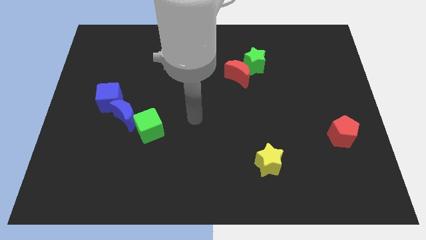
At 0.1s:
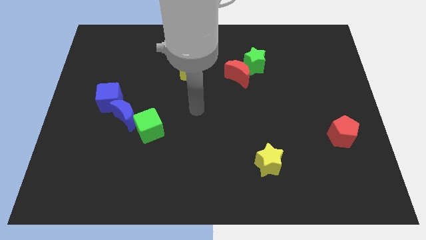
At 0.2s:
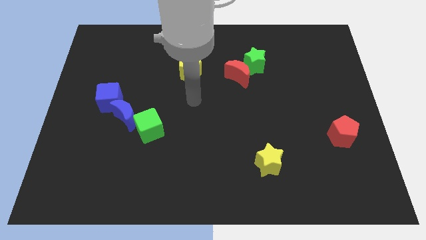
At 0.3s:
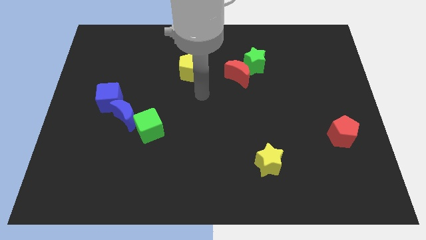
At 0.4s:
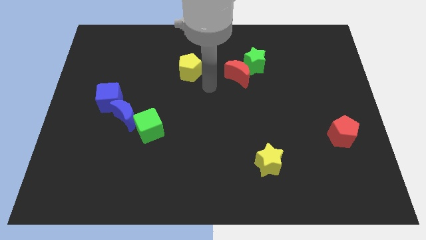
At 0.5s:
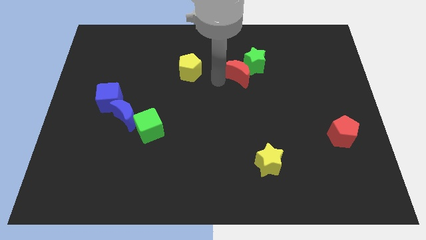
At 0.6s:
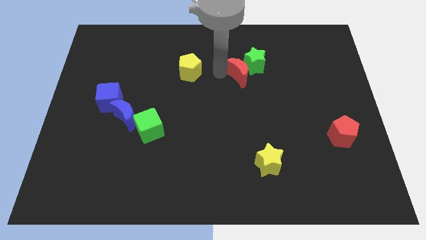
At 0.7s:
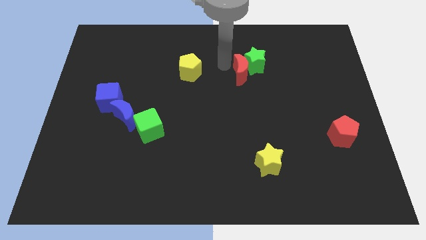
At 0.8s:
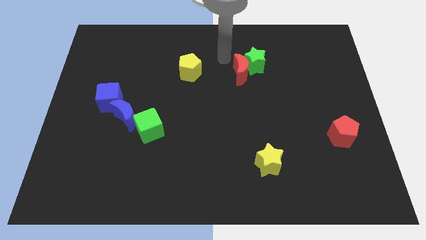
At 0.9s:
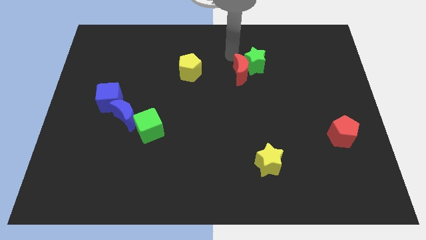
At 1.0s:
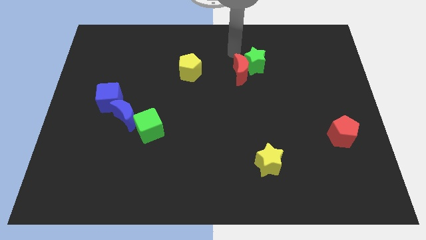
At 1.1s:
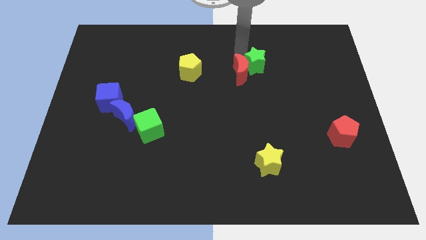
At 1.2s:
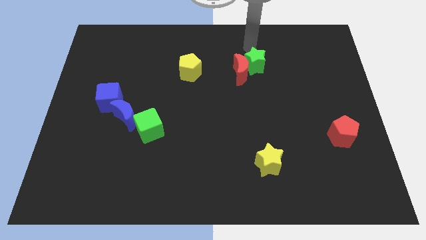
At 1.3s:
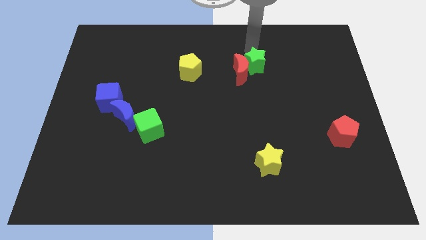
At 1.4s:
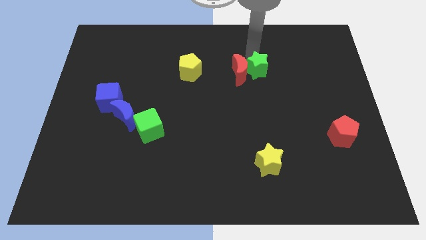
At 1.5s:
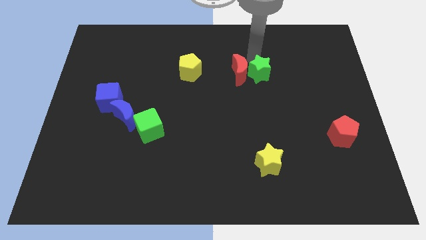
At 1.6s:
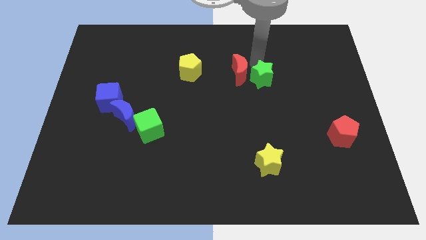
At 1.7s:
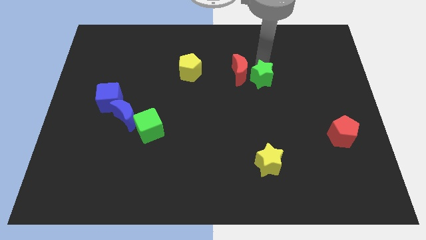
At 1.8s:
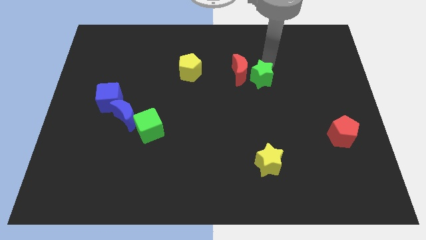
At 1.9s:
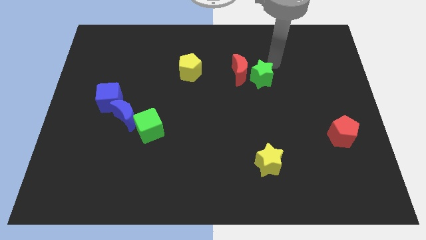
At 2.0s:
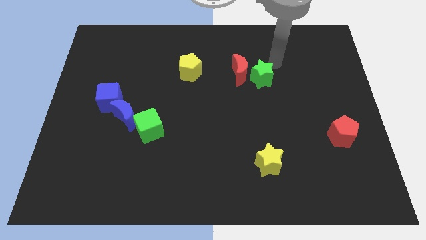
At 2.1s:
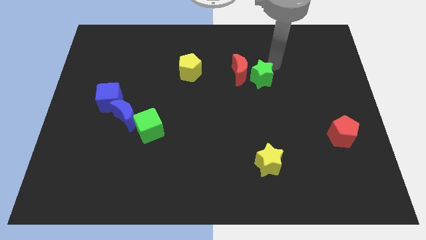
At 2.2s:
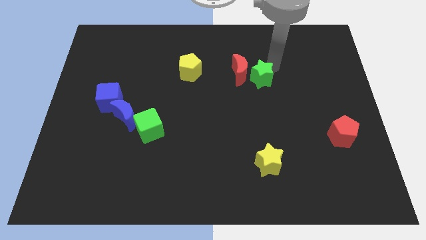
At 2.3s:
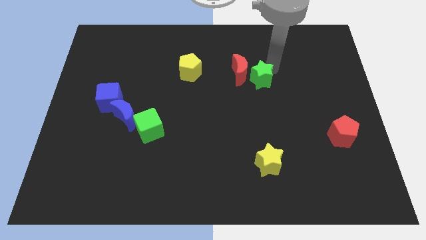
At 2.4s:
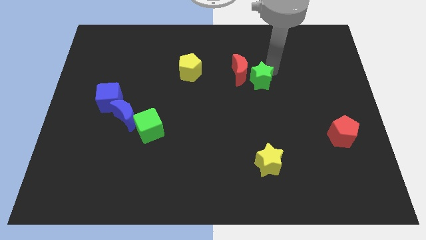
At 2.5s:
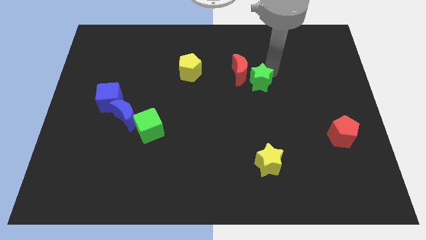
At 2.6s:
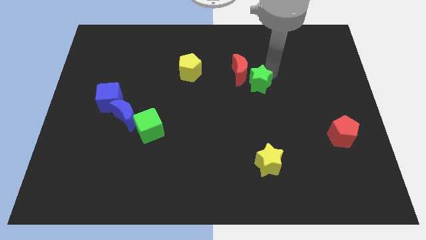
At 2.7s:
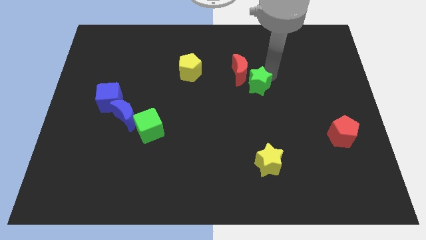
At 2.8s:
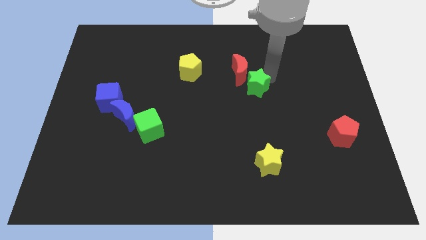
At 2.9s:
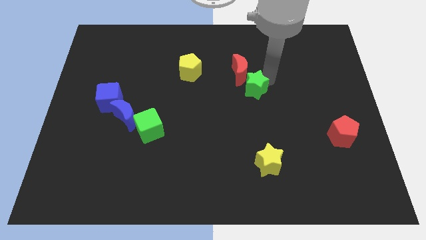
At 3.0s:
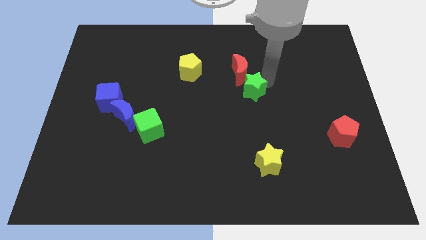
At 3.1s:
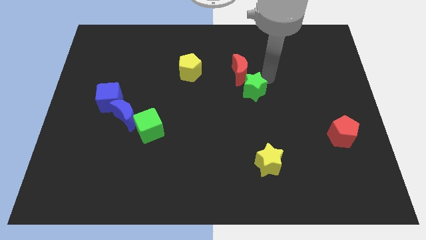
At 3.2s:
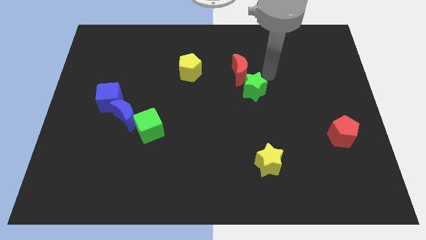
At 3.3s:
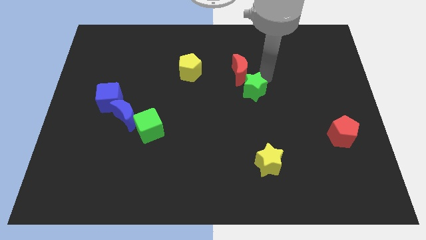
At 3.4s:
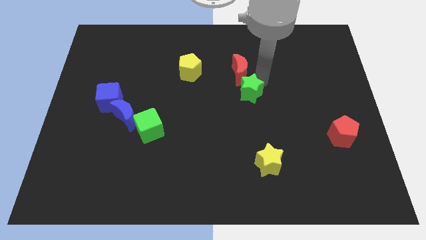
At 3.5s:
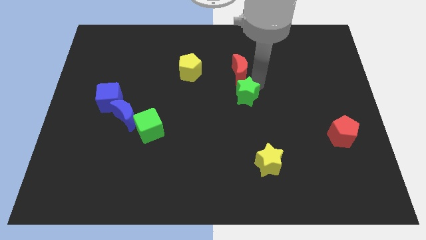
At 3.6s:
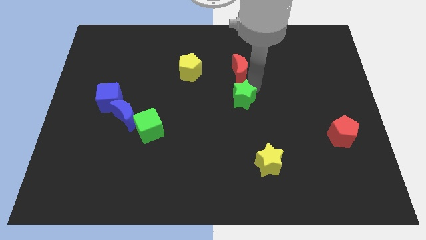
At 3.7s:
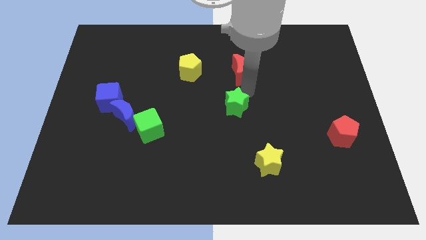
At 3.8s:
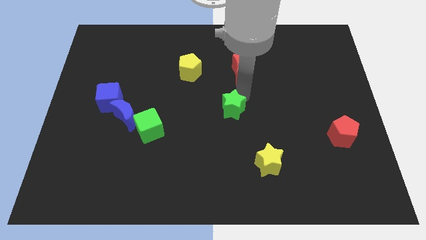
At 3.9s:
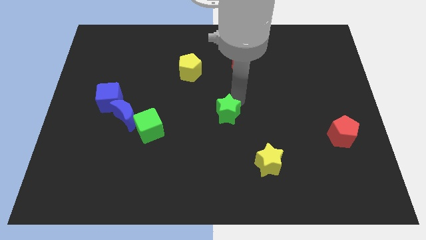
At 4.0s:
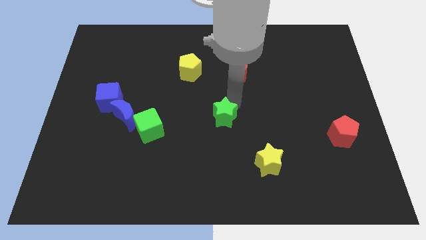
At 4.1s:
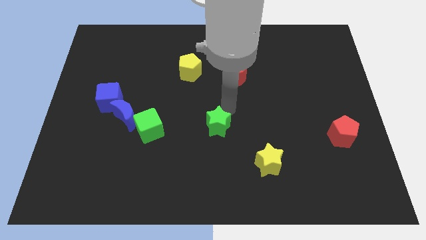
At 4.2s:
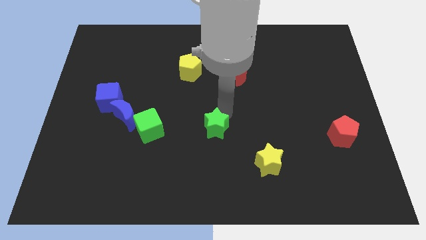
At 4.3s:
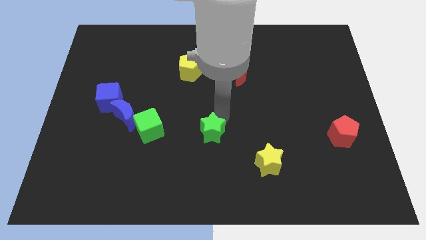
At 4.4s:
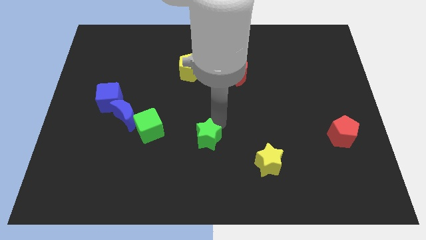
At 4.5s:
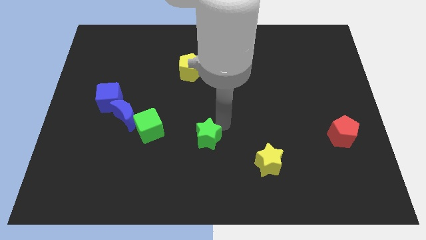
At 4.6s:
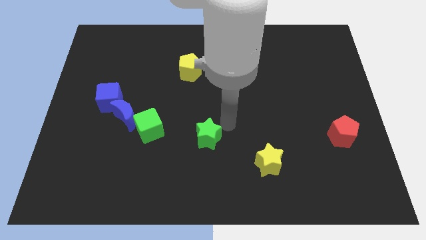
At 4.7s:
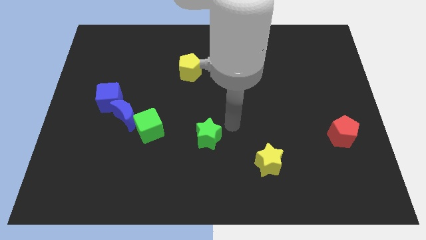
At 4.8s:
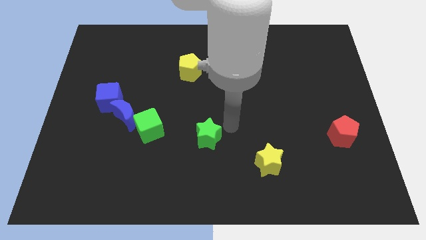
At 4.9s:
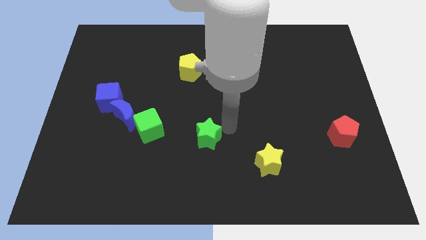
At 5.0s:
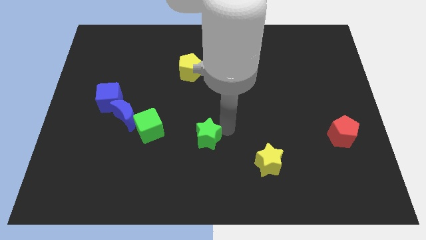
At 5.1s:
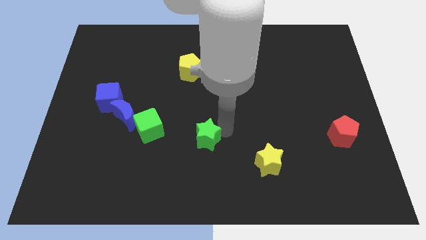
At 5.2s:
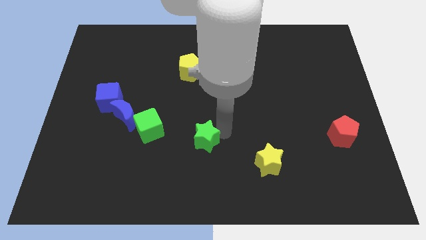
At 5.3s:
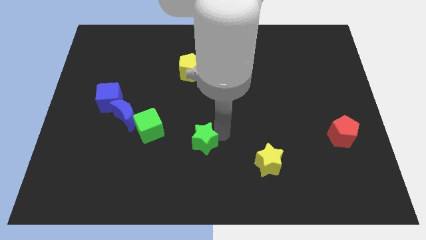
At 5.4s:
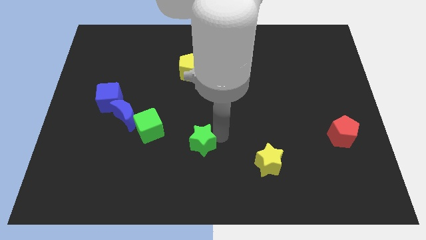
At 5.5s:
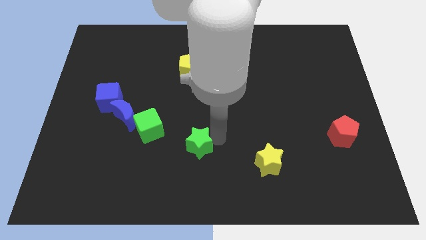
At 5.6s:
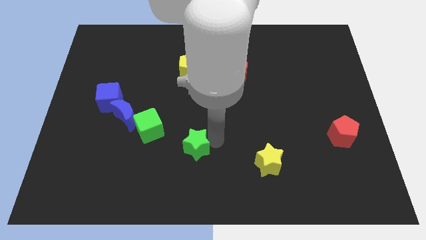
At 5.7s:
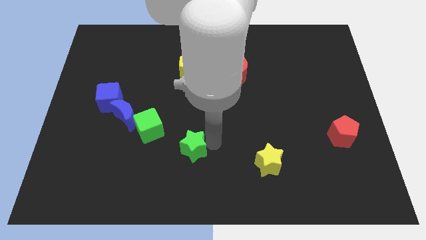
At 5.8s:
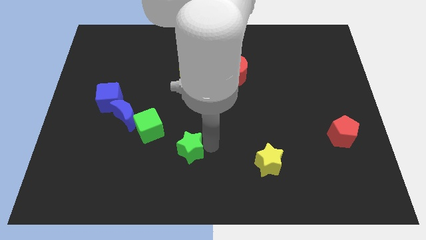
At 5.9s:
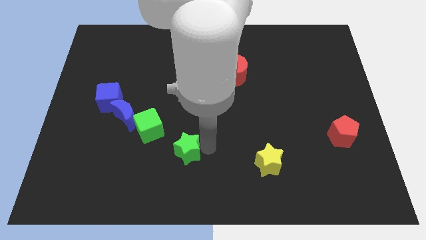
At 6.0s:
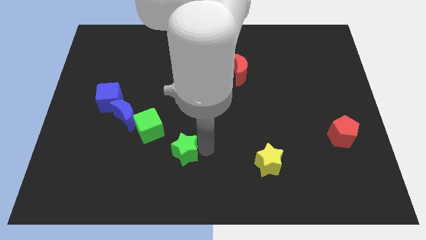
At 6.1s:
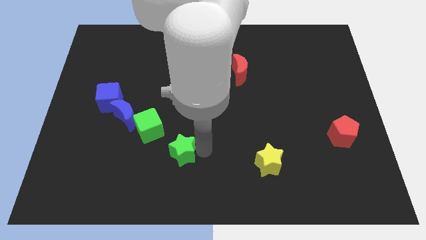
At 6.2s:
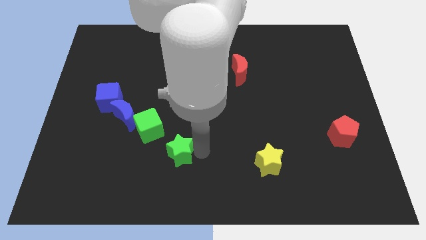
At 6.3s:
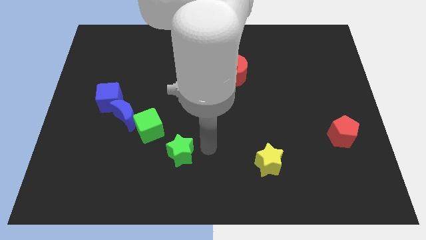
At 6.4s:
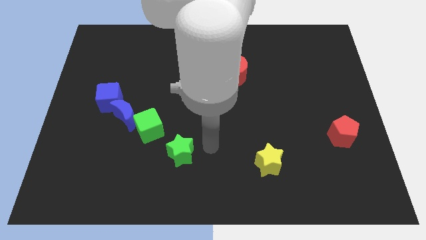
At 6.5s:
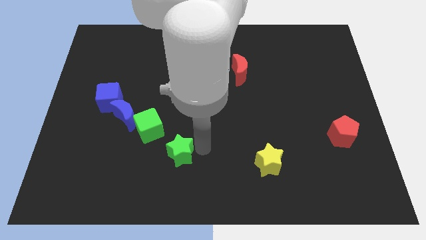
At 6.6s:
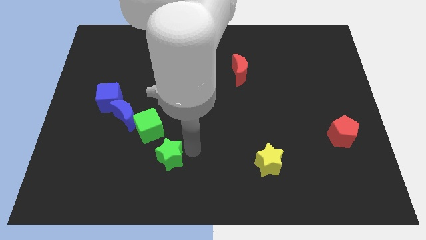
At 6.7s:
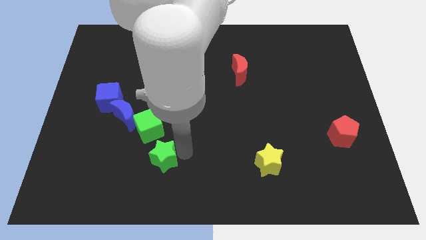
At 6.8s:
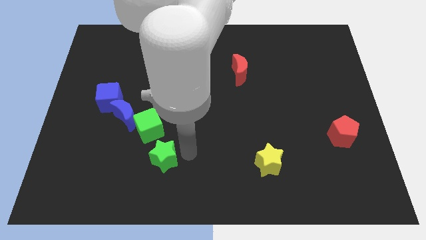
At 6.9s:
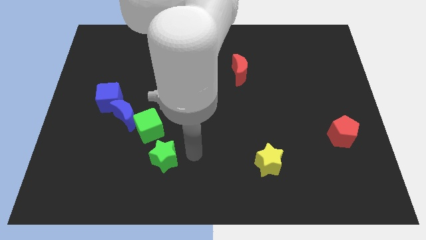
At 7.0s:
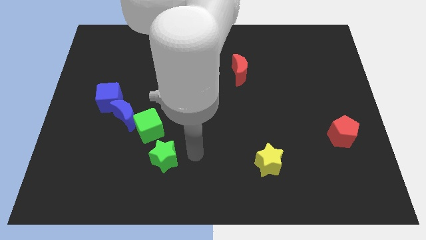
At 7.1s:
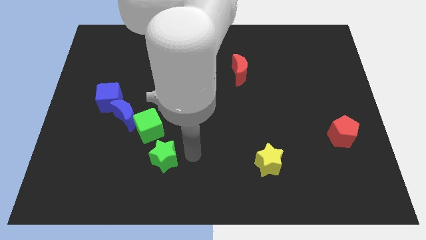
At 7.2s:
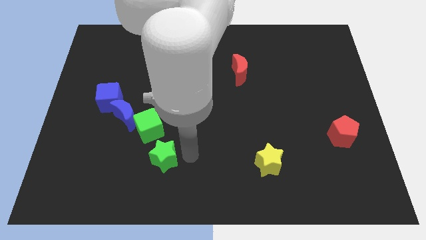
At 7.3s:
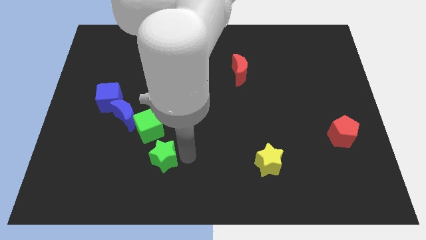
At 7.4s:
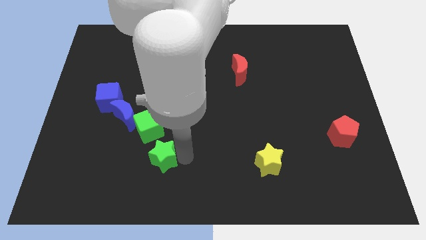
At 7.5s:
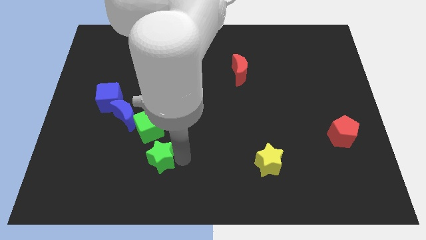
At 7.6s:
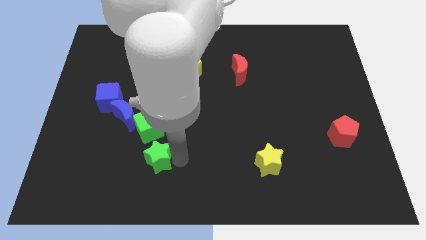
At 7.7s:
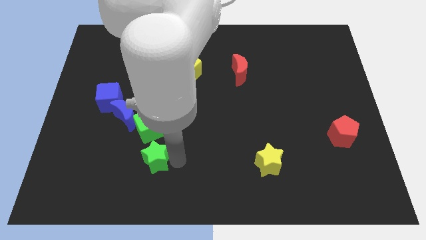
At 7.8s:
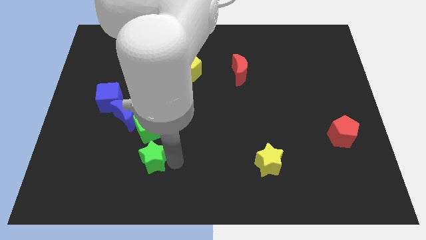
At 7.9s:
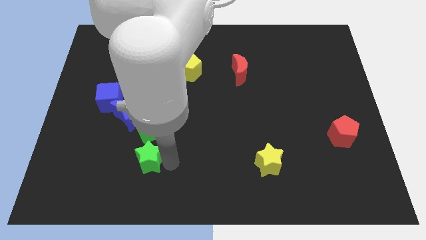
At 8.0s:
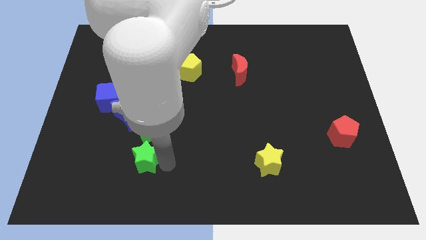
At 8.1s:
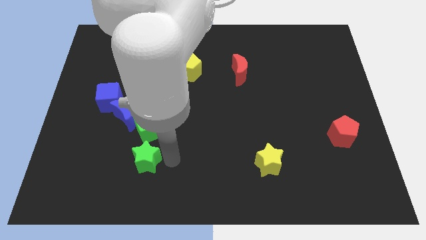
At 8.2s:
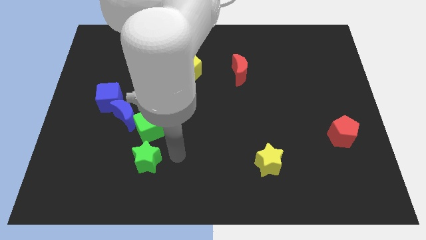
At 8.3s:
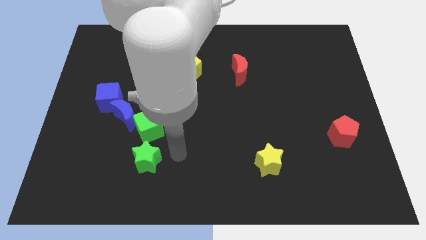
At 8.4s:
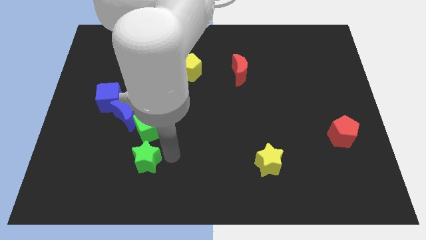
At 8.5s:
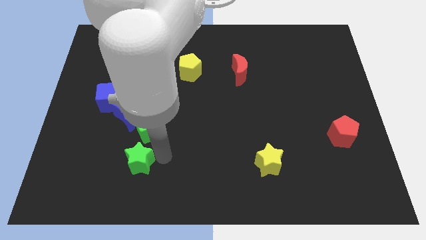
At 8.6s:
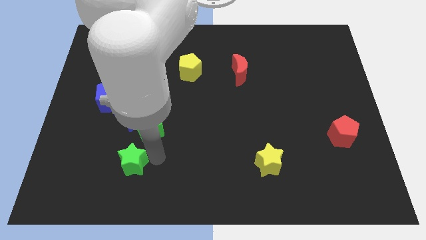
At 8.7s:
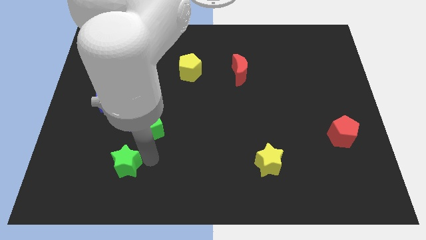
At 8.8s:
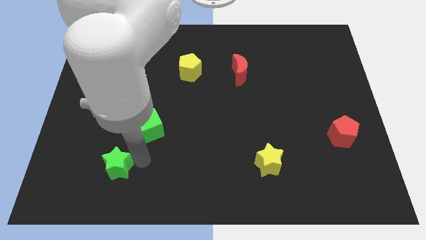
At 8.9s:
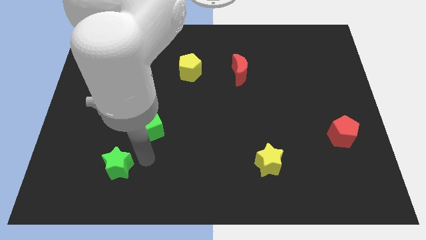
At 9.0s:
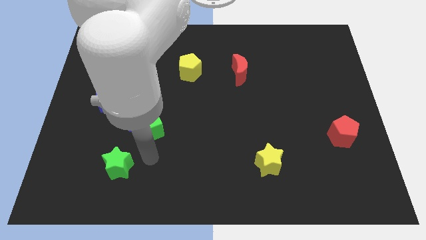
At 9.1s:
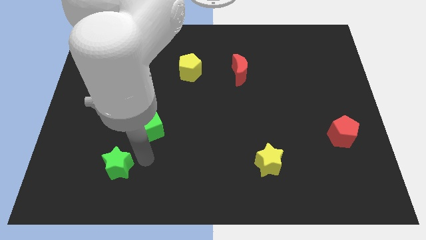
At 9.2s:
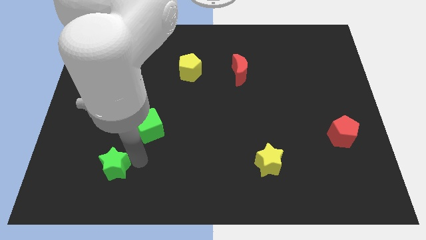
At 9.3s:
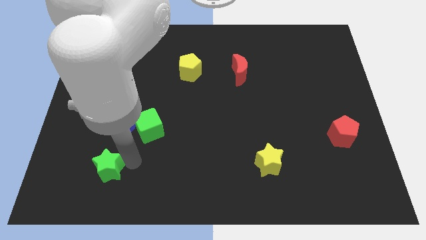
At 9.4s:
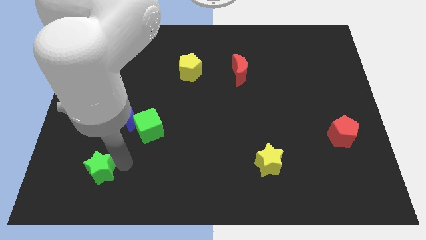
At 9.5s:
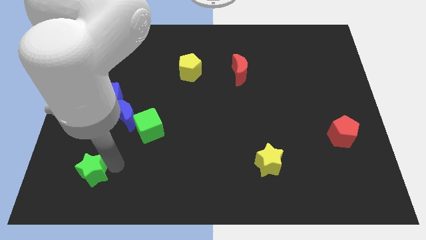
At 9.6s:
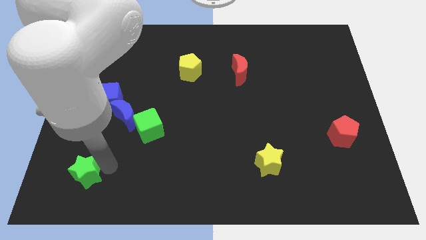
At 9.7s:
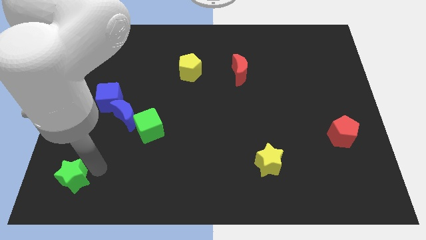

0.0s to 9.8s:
push the green star to the bottom left of the board
